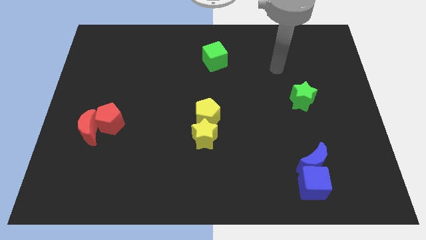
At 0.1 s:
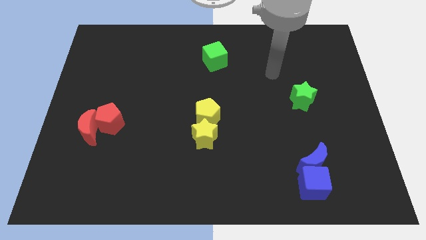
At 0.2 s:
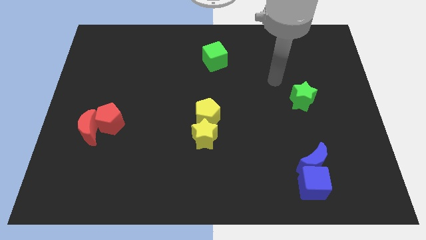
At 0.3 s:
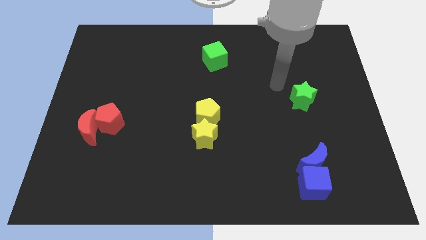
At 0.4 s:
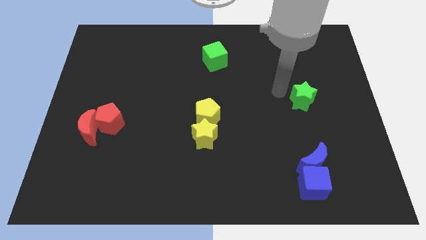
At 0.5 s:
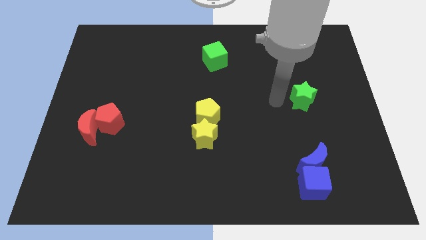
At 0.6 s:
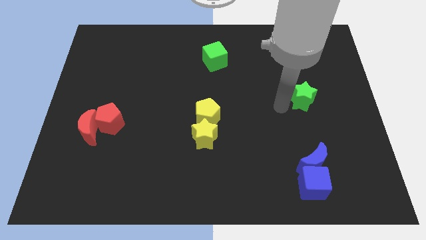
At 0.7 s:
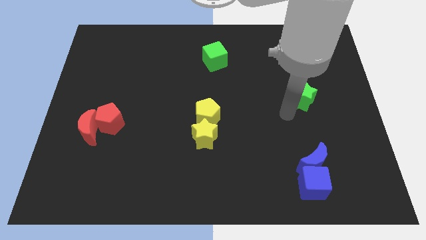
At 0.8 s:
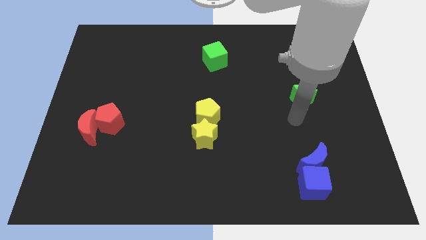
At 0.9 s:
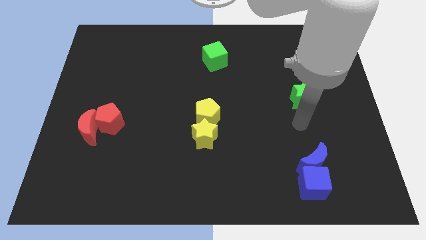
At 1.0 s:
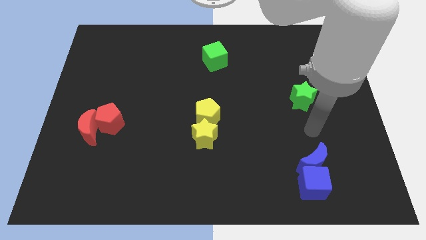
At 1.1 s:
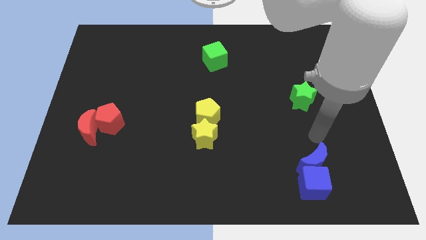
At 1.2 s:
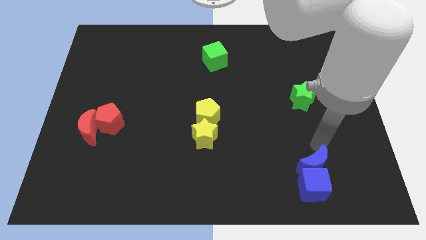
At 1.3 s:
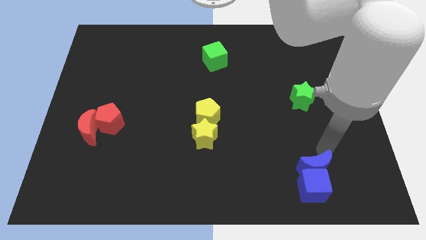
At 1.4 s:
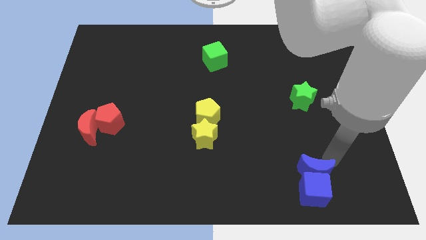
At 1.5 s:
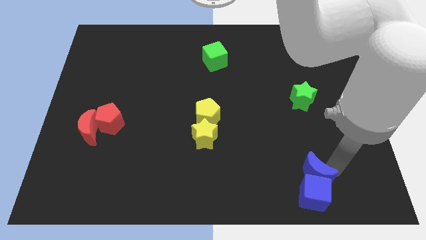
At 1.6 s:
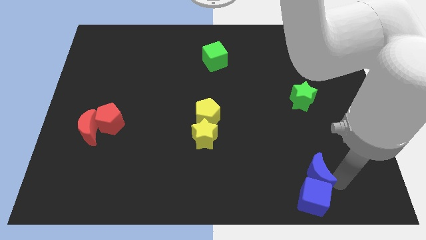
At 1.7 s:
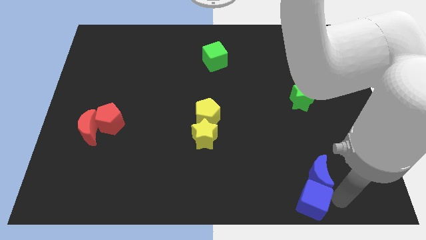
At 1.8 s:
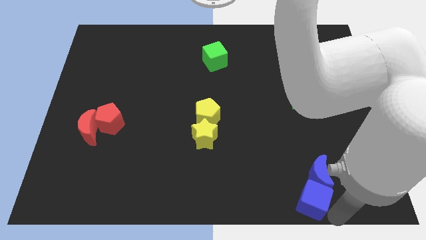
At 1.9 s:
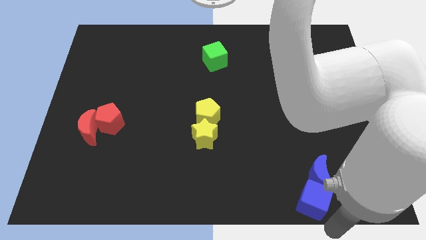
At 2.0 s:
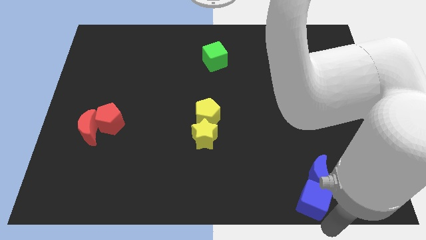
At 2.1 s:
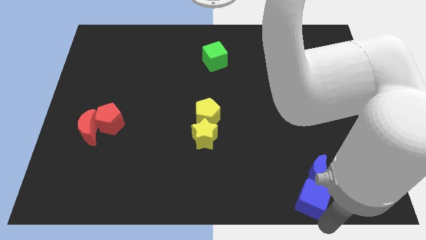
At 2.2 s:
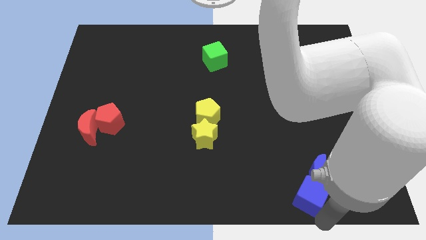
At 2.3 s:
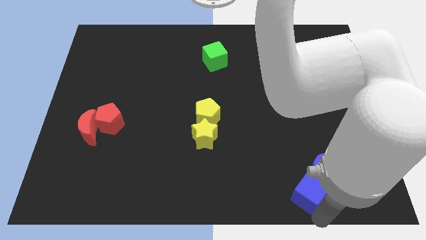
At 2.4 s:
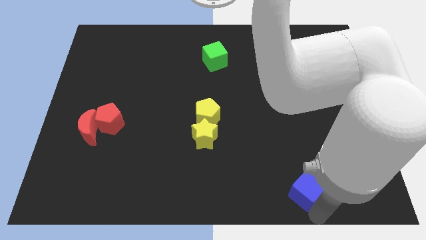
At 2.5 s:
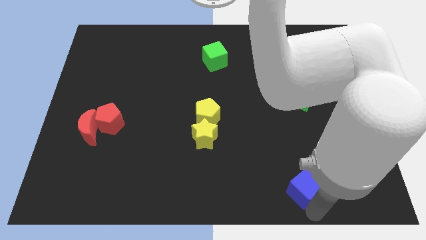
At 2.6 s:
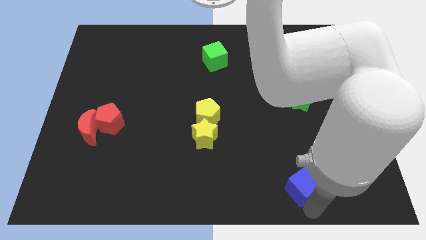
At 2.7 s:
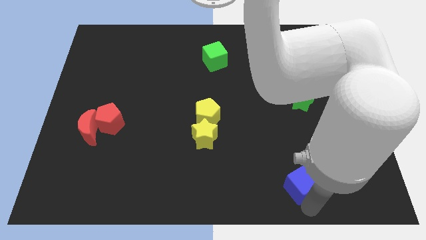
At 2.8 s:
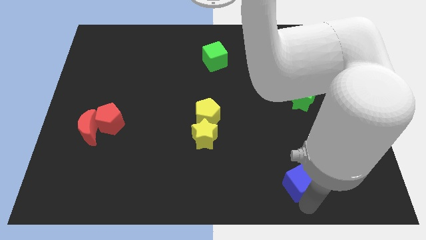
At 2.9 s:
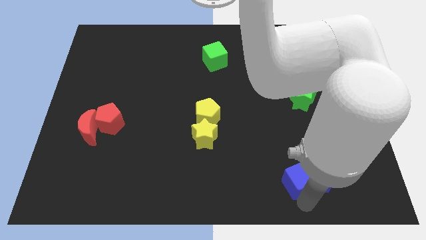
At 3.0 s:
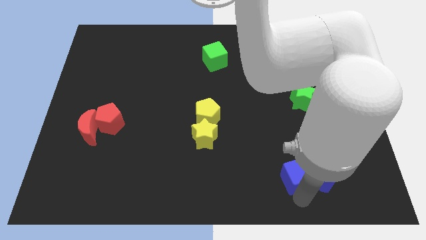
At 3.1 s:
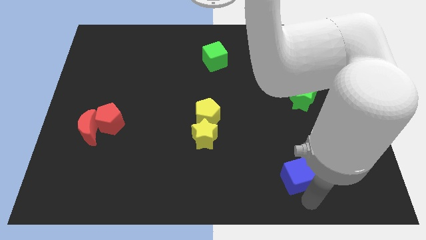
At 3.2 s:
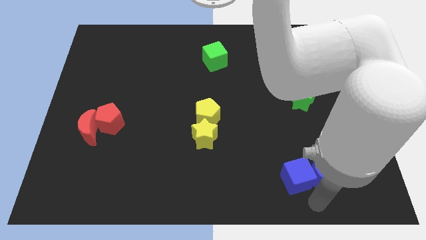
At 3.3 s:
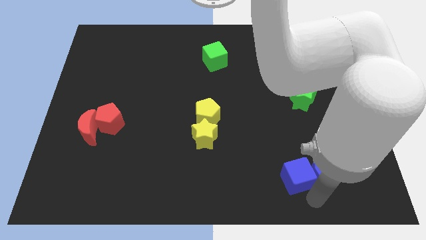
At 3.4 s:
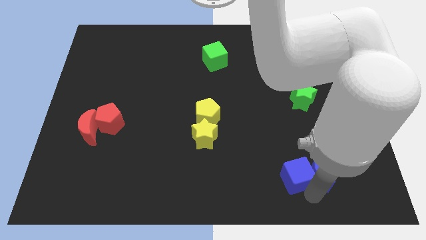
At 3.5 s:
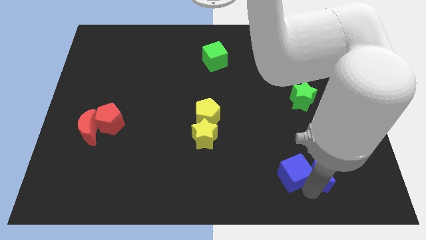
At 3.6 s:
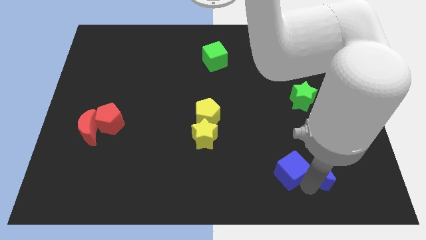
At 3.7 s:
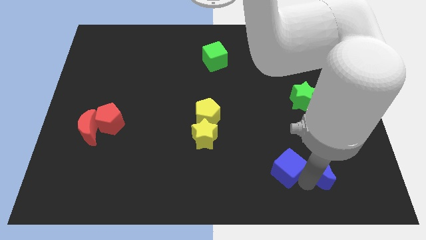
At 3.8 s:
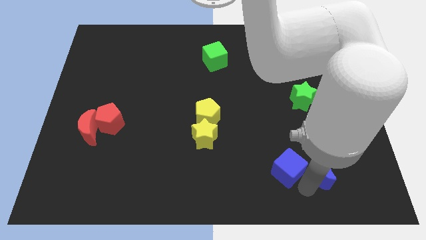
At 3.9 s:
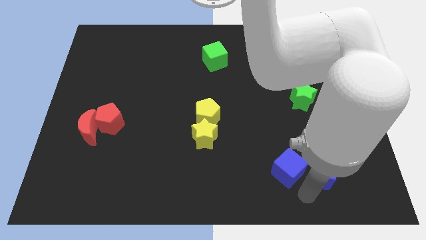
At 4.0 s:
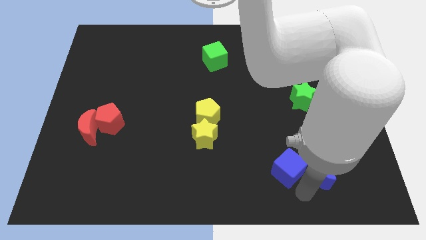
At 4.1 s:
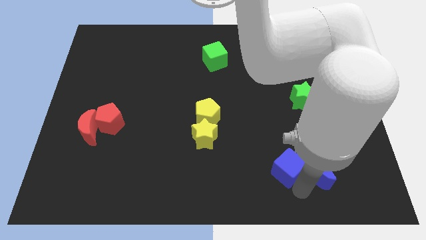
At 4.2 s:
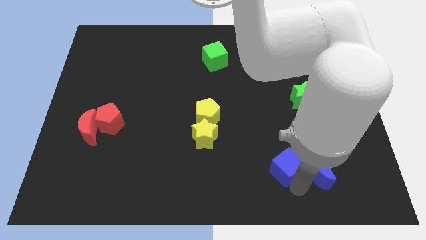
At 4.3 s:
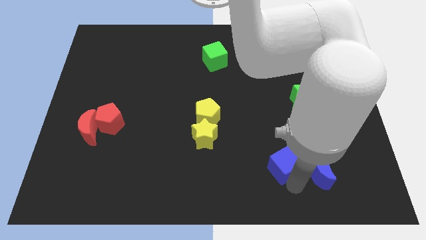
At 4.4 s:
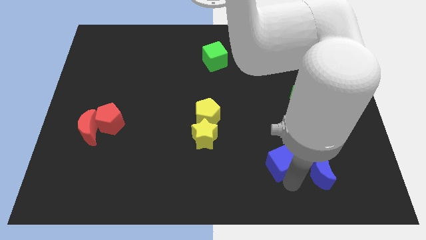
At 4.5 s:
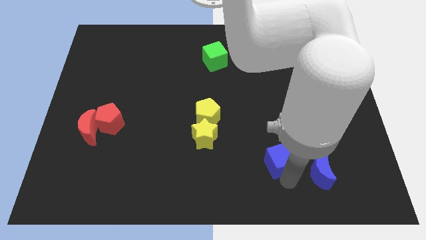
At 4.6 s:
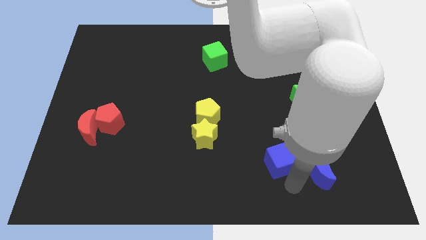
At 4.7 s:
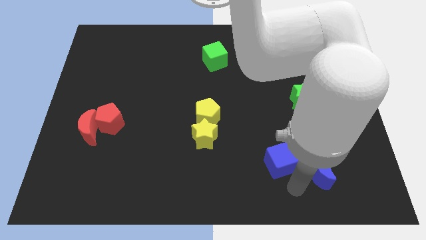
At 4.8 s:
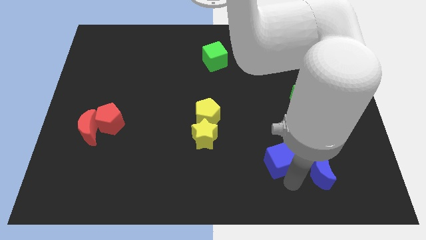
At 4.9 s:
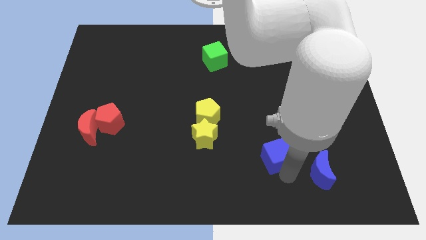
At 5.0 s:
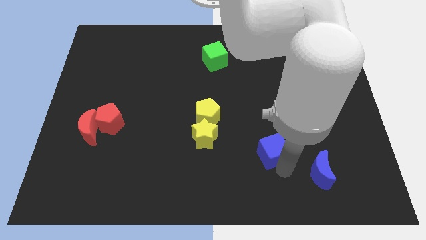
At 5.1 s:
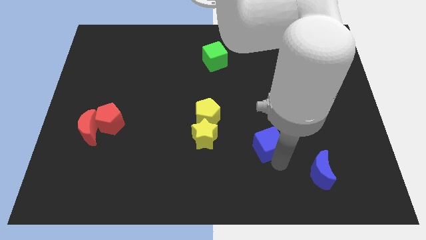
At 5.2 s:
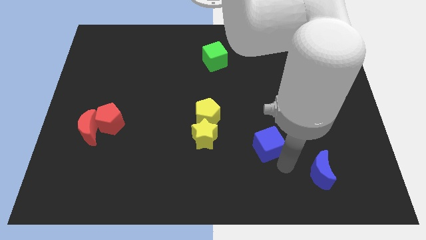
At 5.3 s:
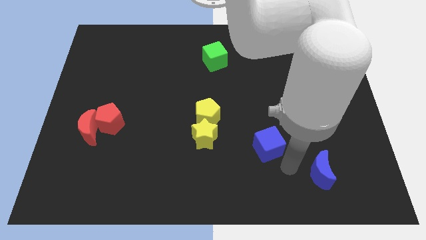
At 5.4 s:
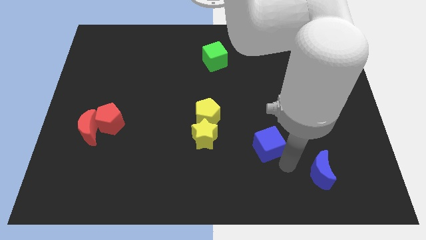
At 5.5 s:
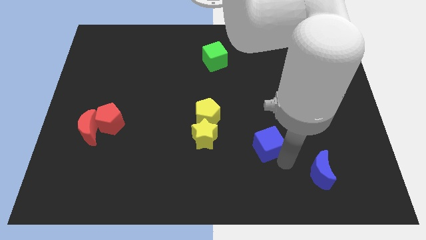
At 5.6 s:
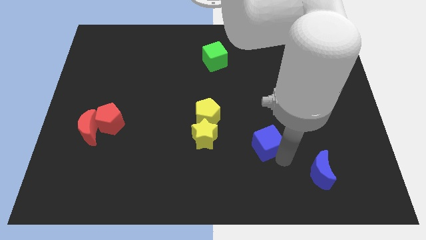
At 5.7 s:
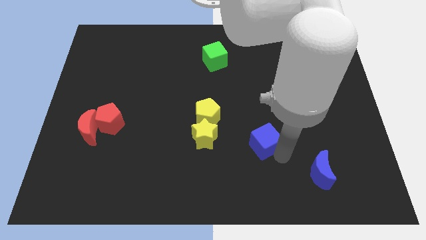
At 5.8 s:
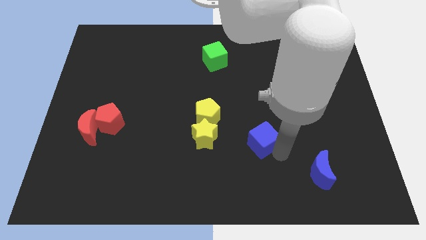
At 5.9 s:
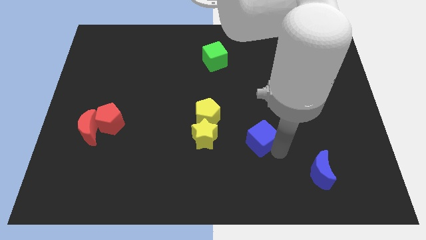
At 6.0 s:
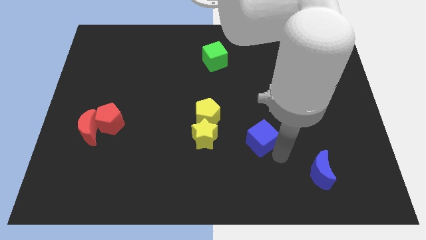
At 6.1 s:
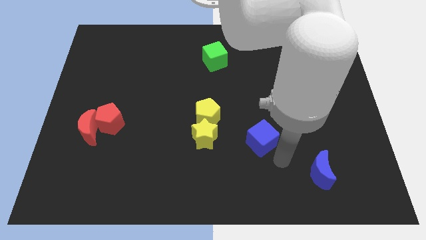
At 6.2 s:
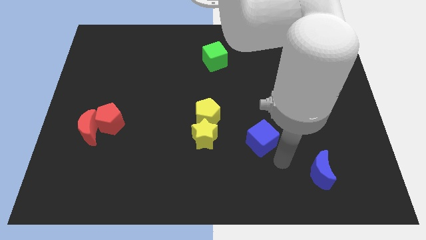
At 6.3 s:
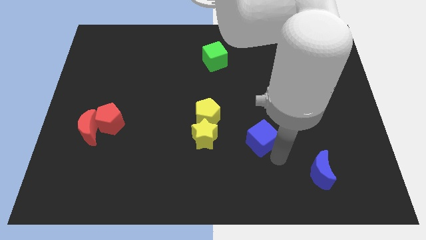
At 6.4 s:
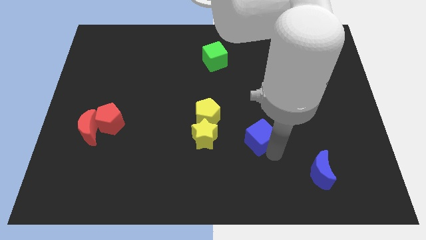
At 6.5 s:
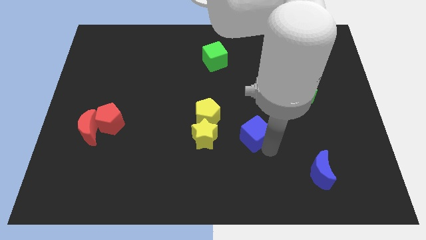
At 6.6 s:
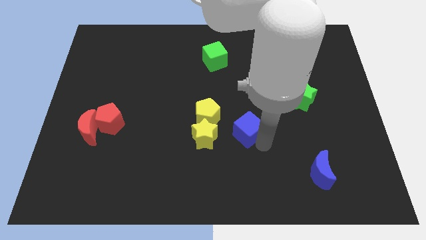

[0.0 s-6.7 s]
move the blue cube to the middle of the board
